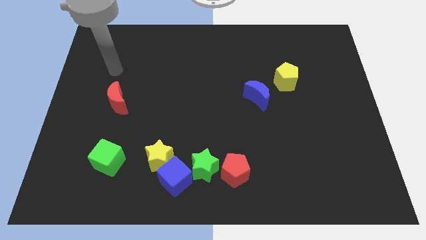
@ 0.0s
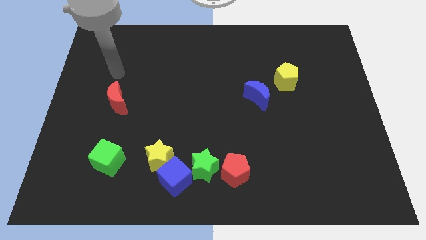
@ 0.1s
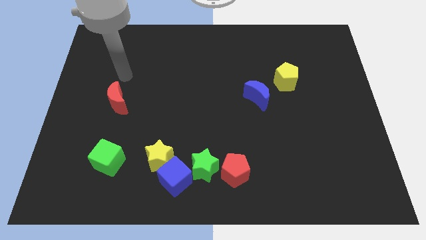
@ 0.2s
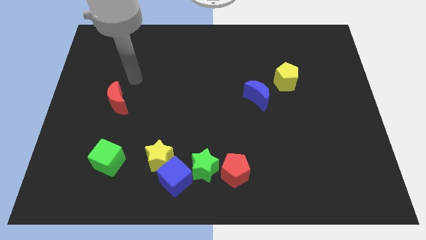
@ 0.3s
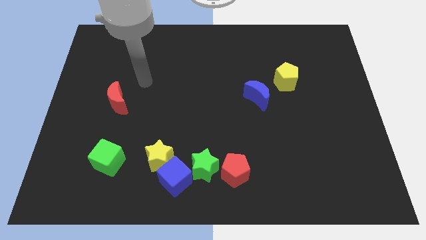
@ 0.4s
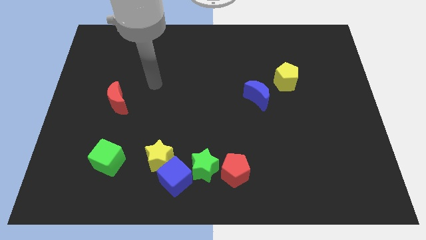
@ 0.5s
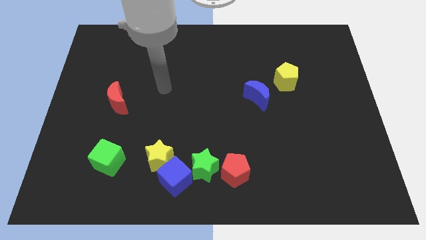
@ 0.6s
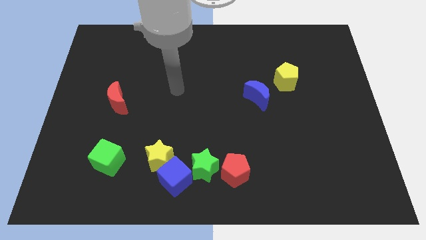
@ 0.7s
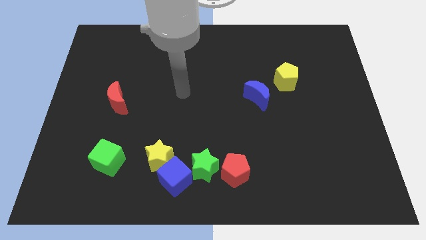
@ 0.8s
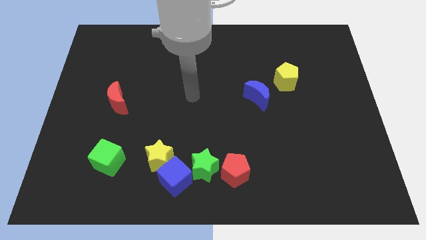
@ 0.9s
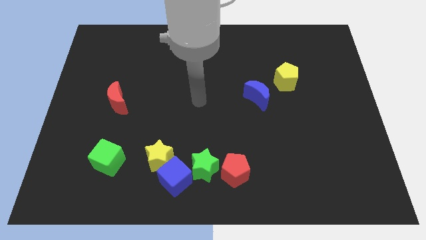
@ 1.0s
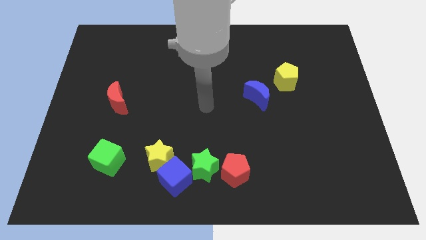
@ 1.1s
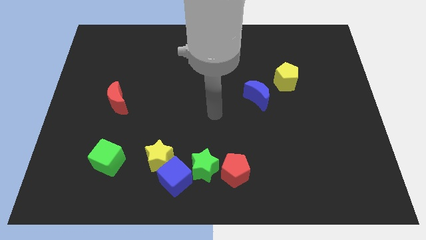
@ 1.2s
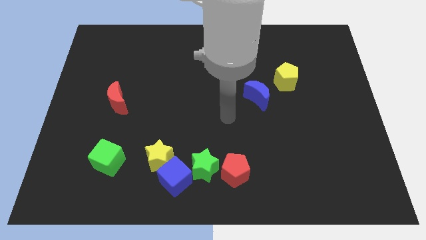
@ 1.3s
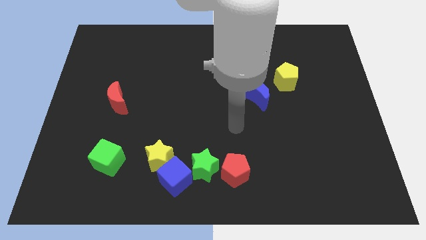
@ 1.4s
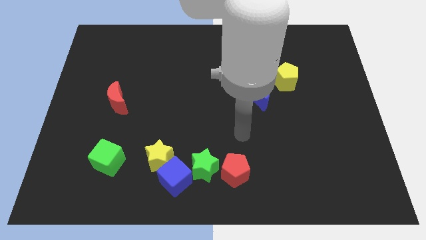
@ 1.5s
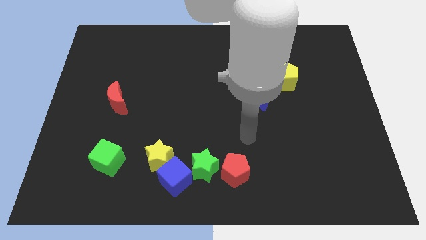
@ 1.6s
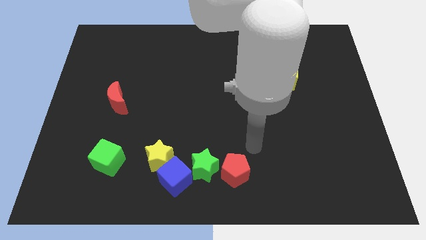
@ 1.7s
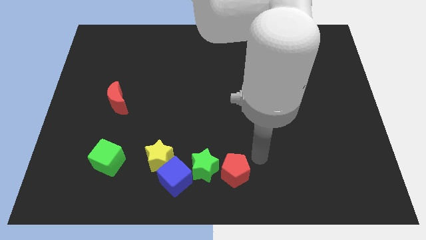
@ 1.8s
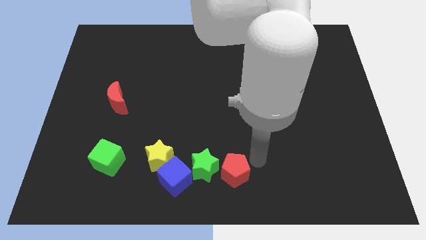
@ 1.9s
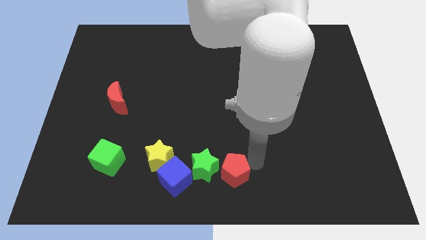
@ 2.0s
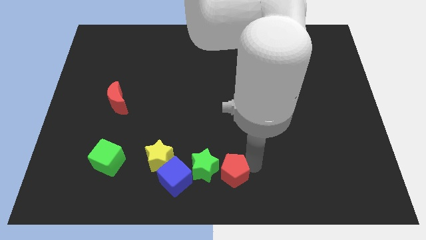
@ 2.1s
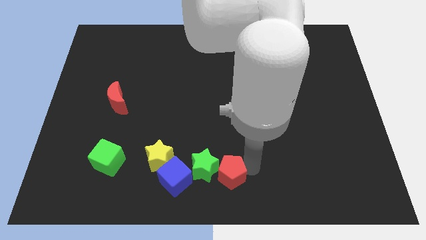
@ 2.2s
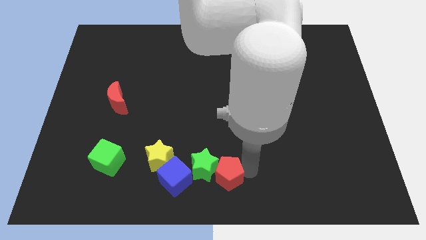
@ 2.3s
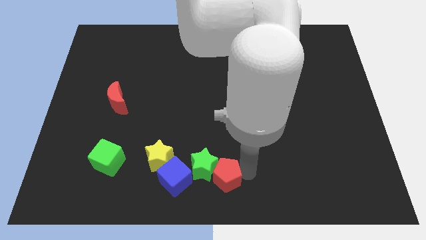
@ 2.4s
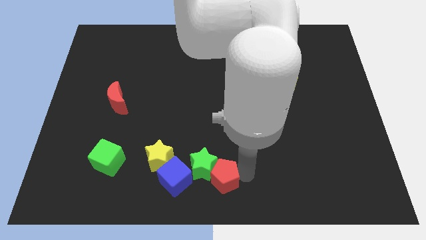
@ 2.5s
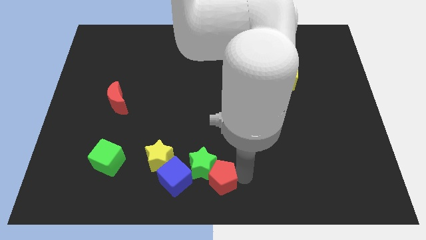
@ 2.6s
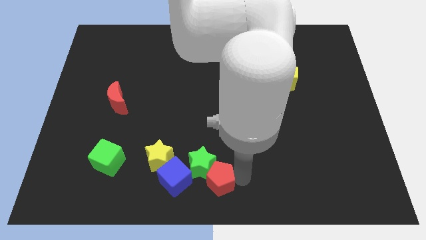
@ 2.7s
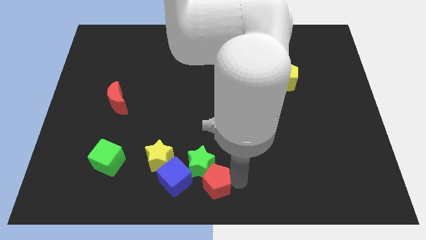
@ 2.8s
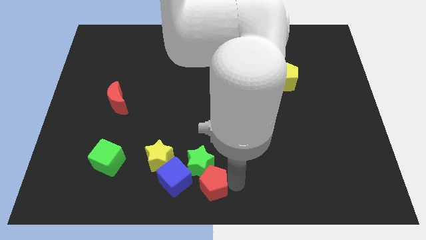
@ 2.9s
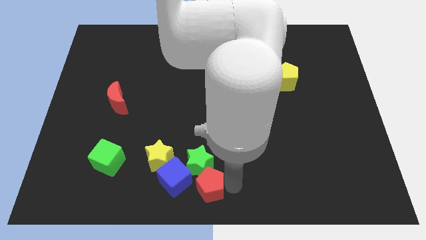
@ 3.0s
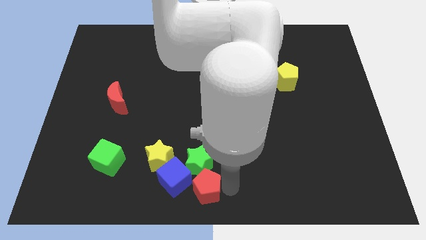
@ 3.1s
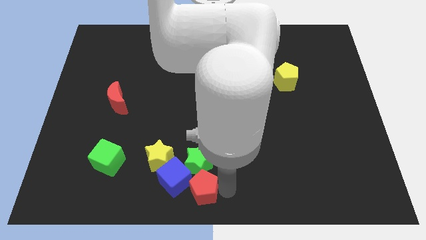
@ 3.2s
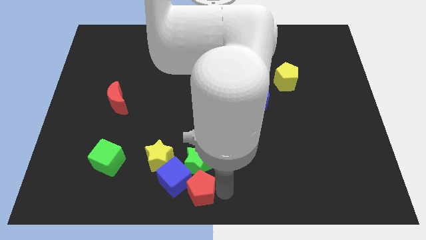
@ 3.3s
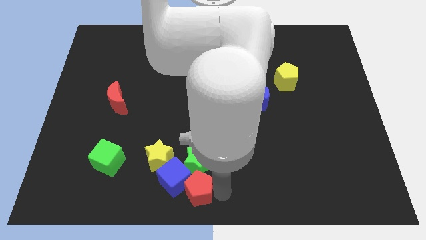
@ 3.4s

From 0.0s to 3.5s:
slightly push the red pentagon left

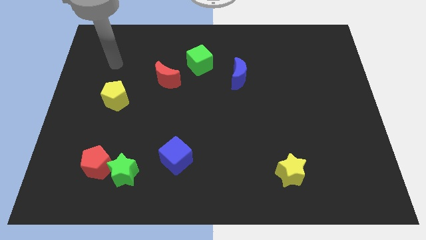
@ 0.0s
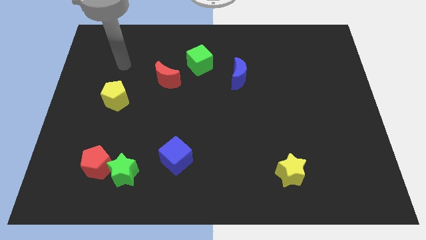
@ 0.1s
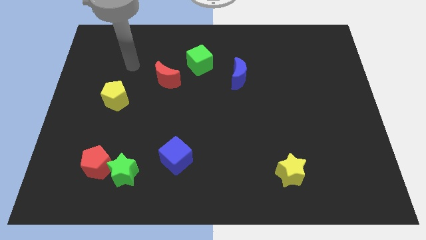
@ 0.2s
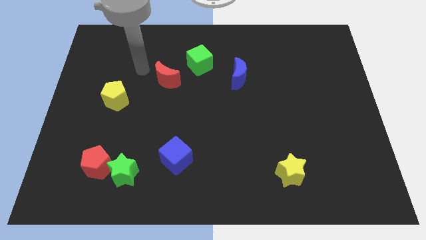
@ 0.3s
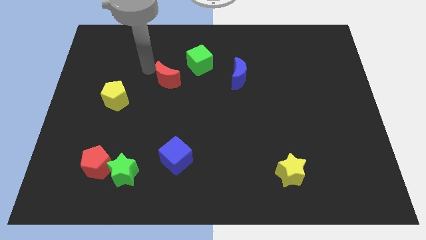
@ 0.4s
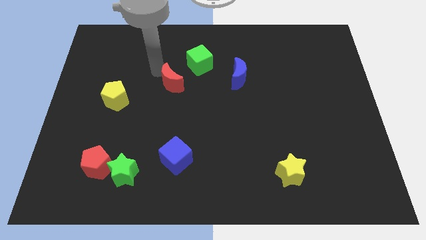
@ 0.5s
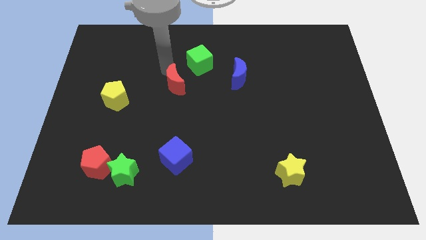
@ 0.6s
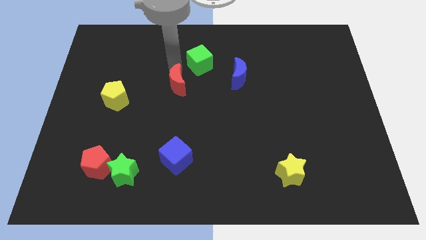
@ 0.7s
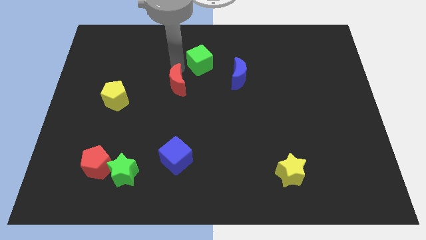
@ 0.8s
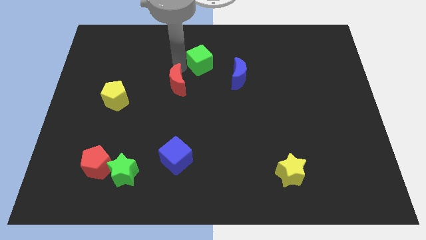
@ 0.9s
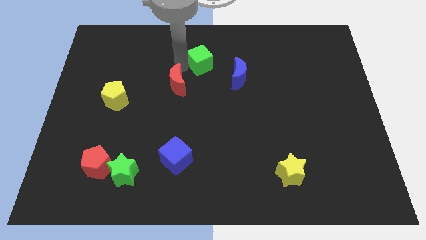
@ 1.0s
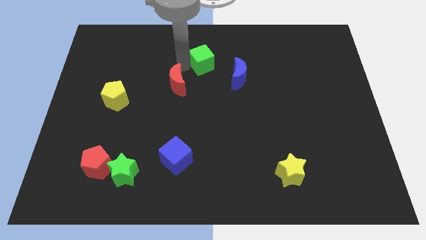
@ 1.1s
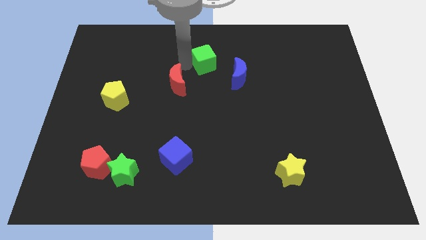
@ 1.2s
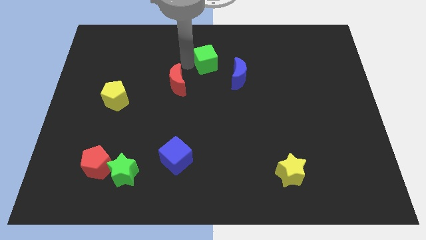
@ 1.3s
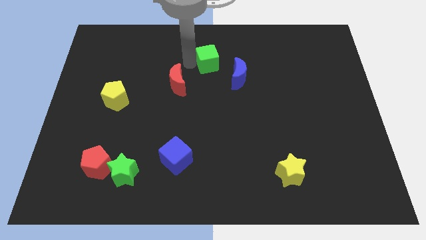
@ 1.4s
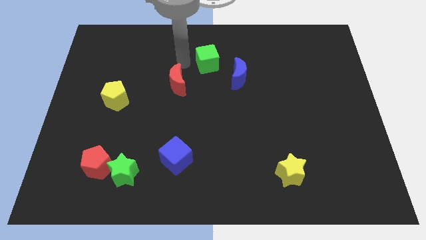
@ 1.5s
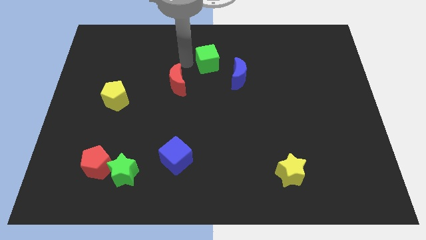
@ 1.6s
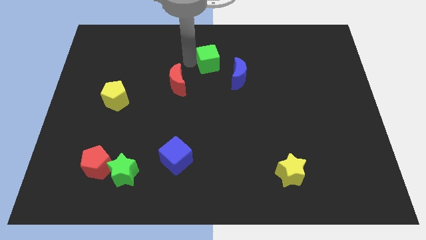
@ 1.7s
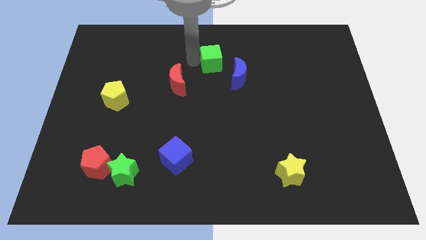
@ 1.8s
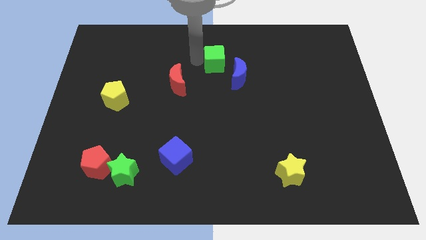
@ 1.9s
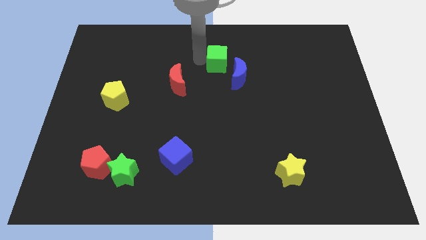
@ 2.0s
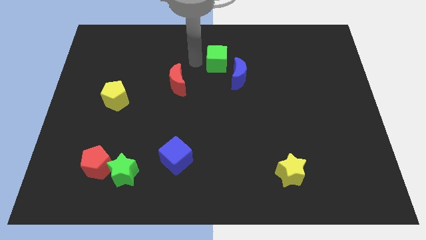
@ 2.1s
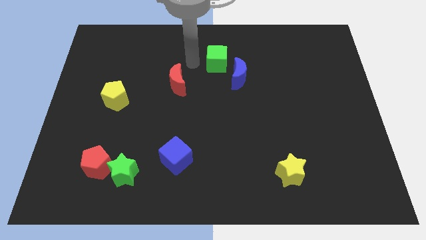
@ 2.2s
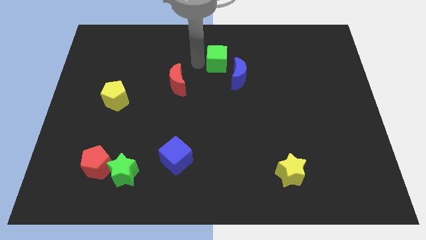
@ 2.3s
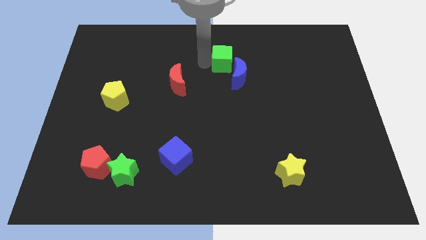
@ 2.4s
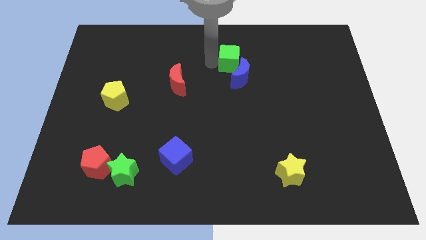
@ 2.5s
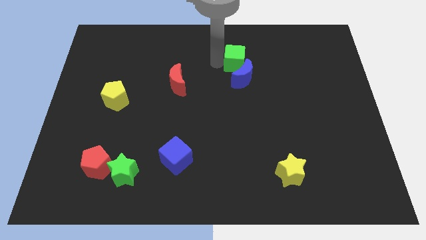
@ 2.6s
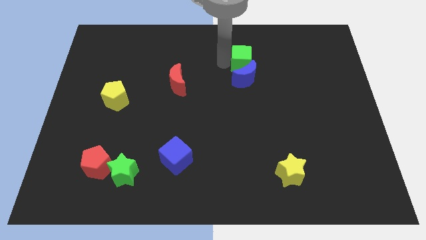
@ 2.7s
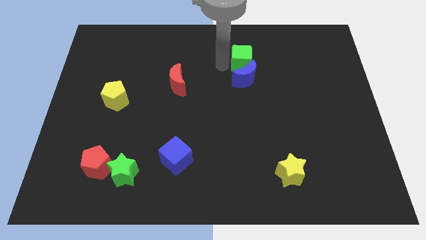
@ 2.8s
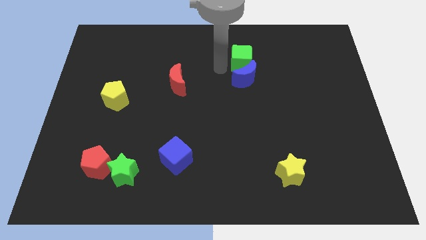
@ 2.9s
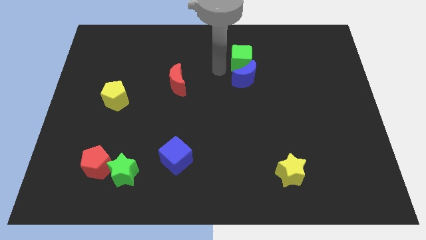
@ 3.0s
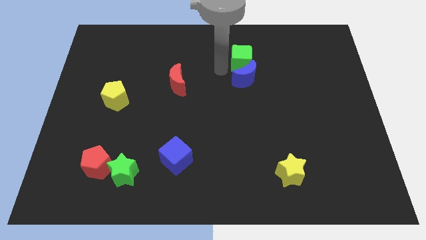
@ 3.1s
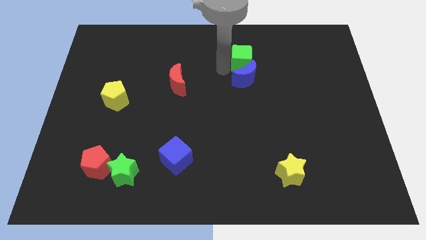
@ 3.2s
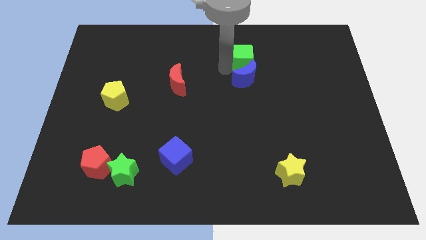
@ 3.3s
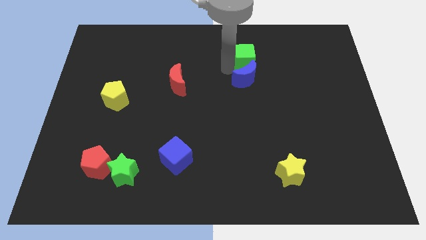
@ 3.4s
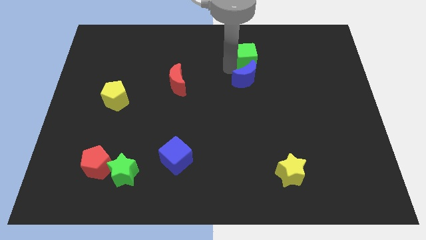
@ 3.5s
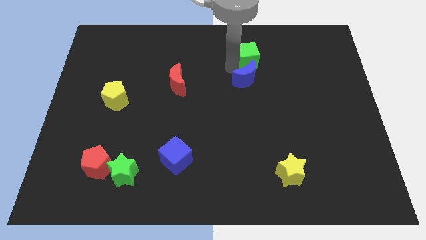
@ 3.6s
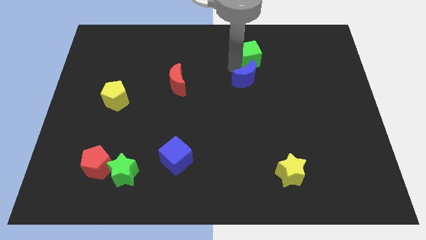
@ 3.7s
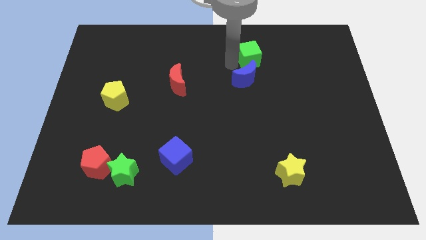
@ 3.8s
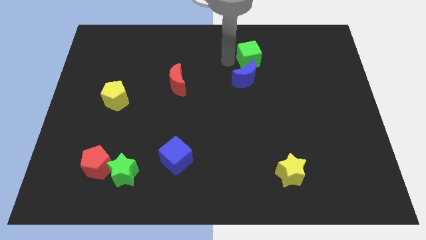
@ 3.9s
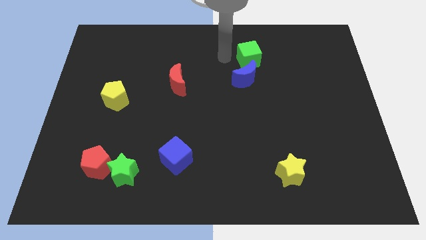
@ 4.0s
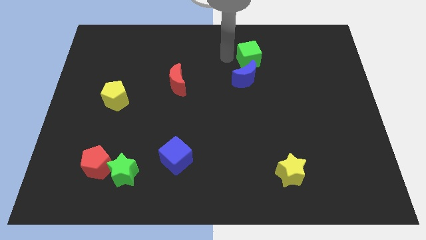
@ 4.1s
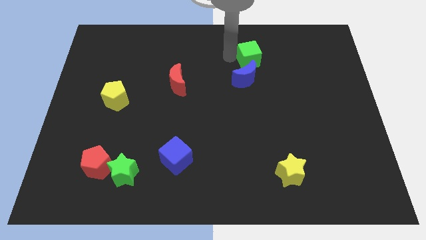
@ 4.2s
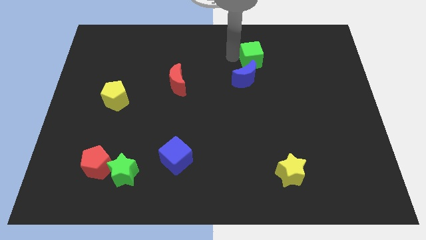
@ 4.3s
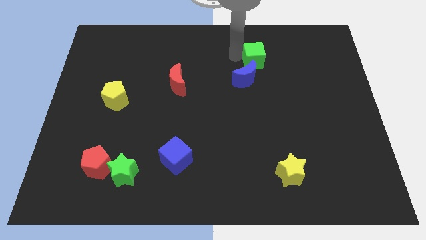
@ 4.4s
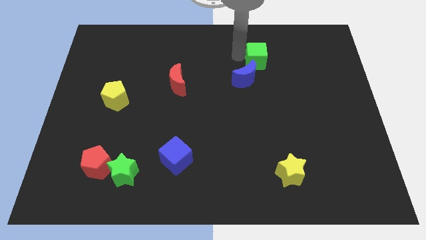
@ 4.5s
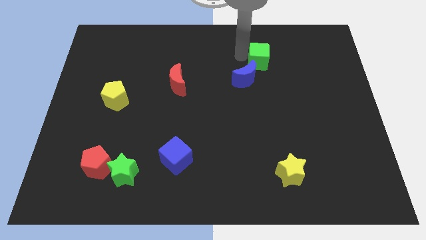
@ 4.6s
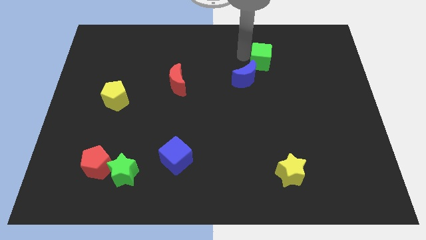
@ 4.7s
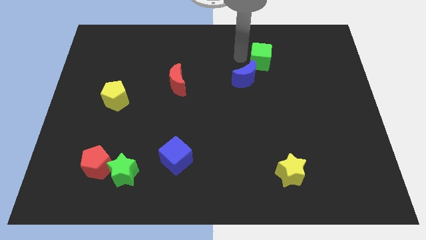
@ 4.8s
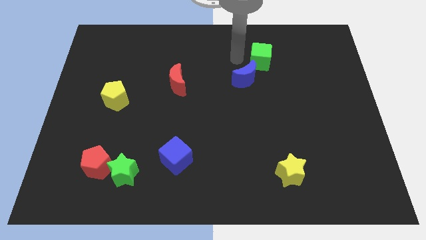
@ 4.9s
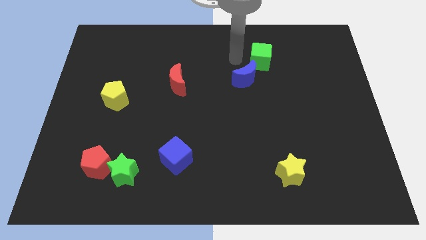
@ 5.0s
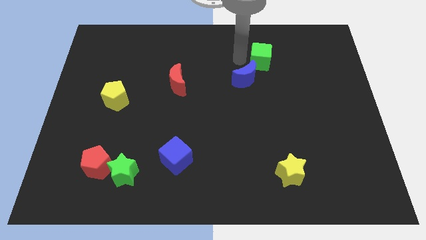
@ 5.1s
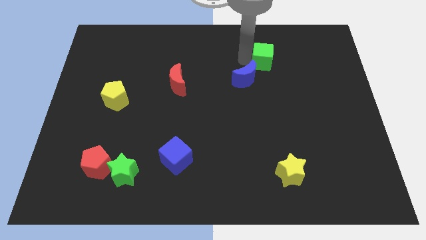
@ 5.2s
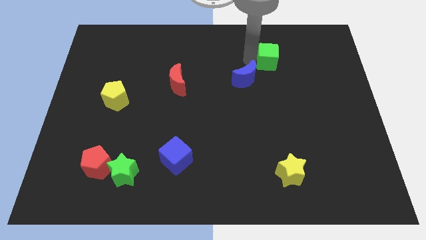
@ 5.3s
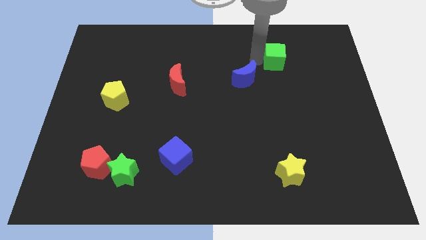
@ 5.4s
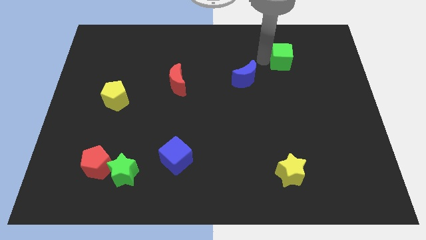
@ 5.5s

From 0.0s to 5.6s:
push the green cube right
